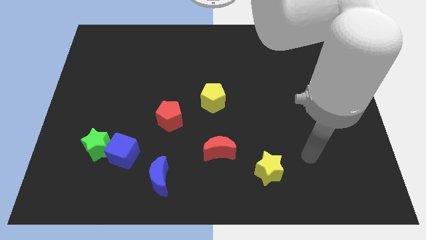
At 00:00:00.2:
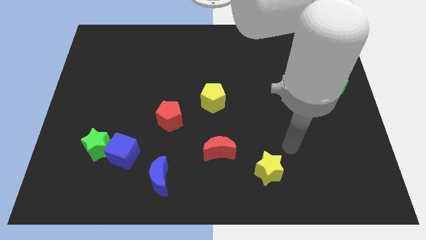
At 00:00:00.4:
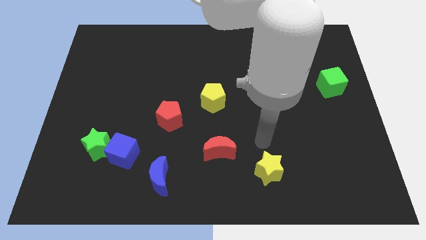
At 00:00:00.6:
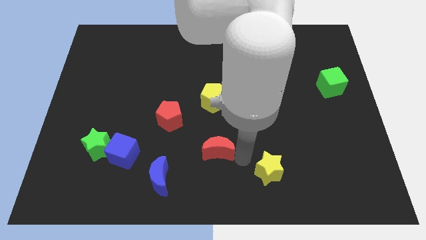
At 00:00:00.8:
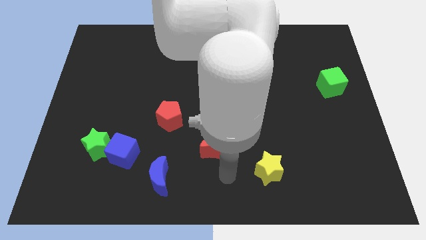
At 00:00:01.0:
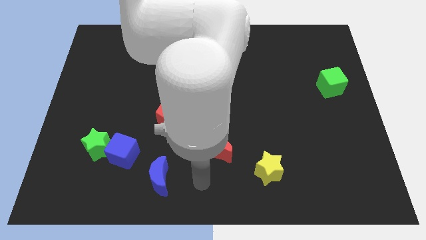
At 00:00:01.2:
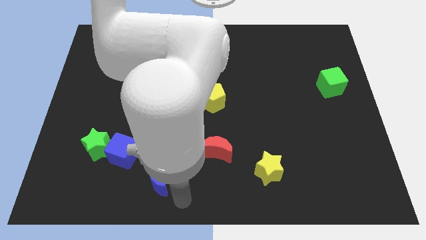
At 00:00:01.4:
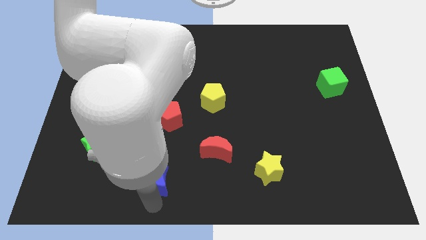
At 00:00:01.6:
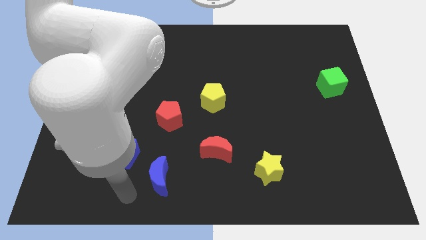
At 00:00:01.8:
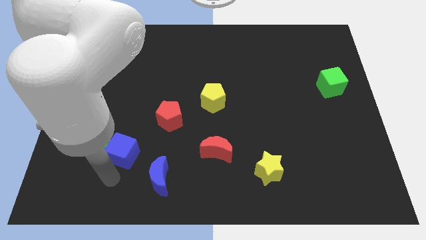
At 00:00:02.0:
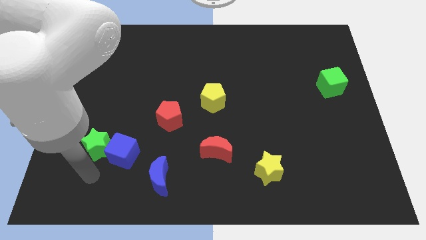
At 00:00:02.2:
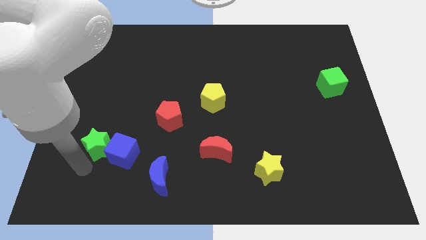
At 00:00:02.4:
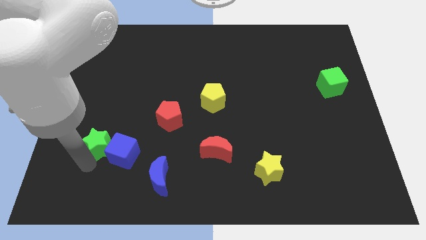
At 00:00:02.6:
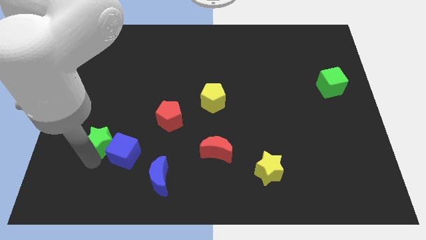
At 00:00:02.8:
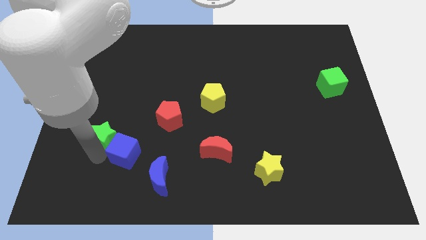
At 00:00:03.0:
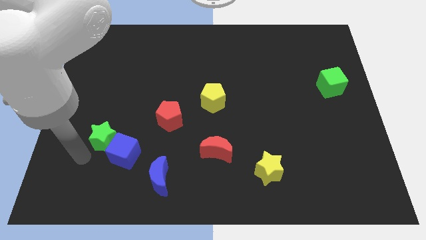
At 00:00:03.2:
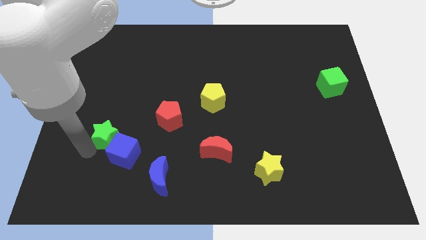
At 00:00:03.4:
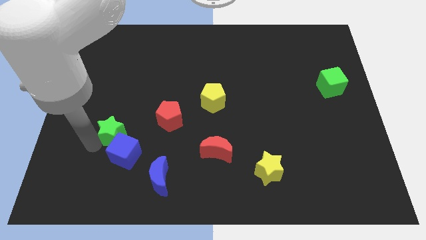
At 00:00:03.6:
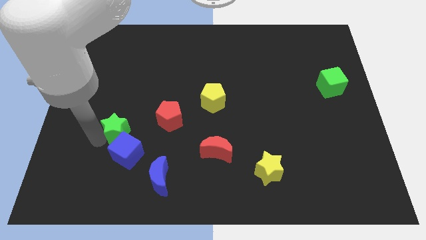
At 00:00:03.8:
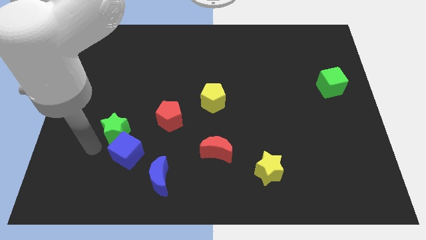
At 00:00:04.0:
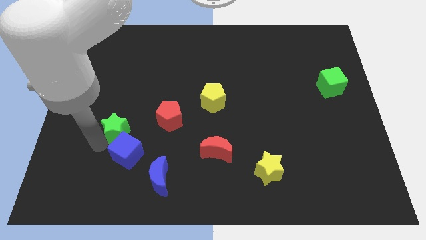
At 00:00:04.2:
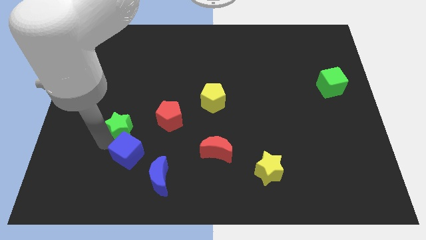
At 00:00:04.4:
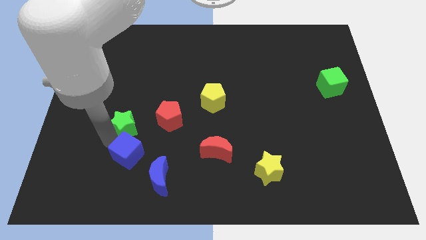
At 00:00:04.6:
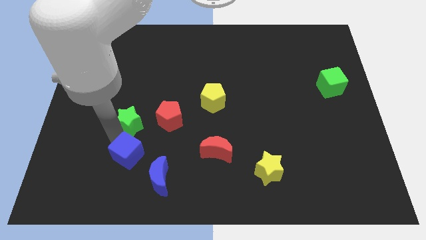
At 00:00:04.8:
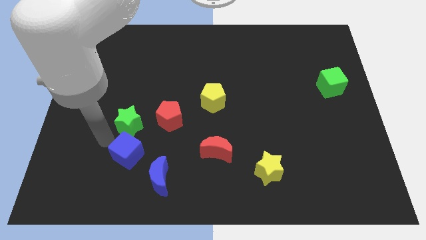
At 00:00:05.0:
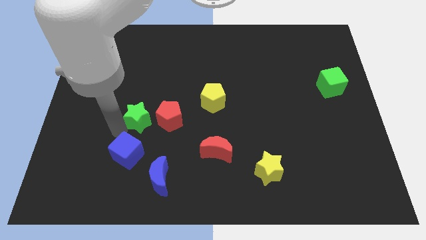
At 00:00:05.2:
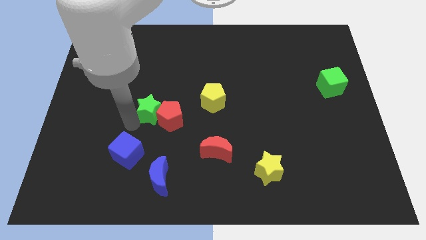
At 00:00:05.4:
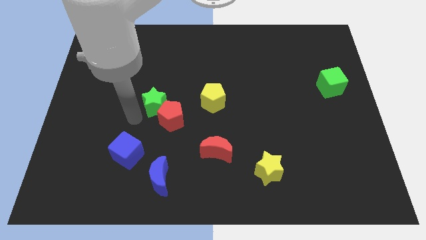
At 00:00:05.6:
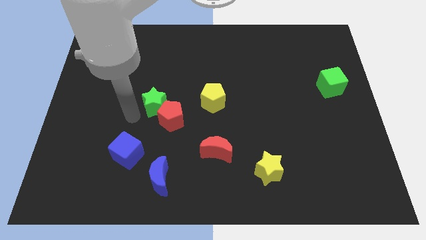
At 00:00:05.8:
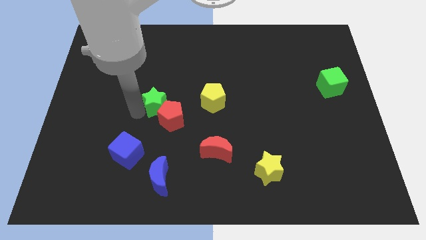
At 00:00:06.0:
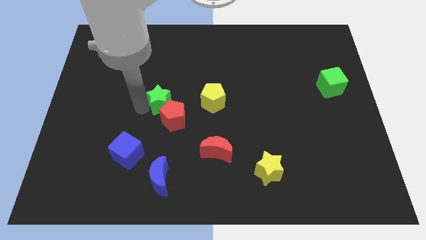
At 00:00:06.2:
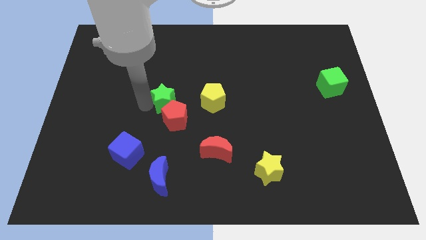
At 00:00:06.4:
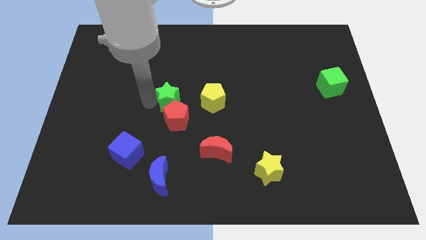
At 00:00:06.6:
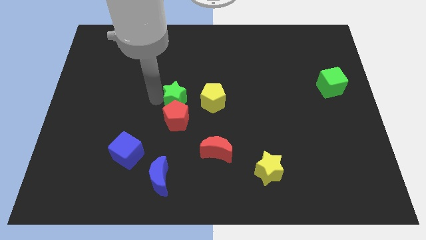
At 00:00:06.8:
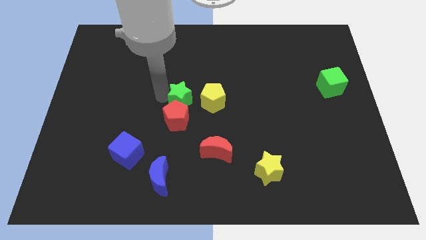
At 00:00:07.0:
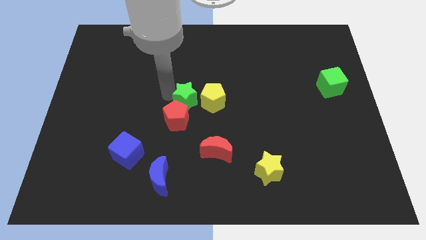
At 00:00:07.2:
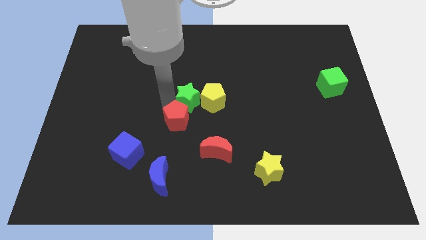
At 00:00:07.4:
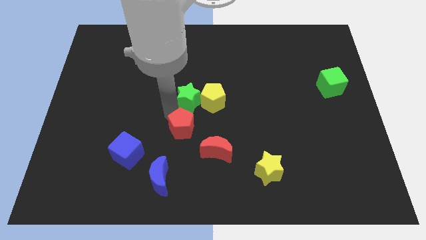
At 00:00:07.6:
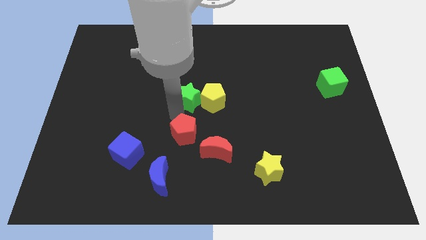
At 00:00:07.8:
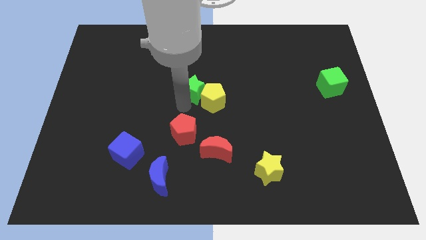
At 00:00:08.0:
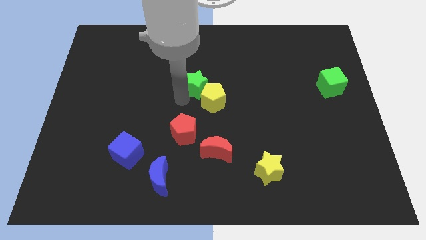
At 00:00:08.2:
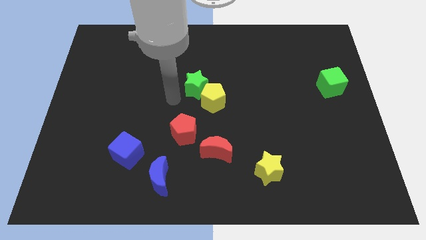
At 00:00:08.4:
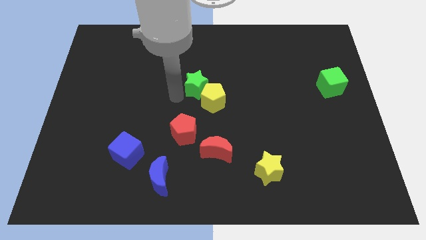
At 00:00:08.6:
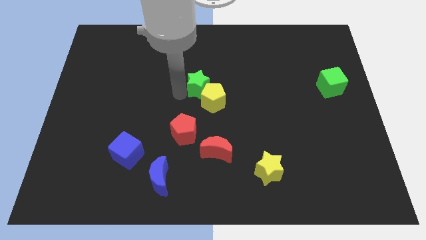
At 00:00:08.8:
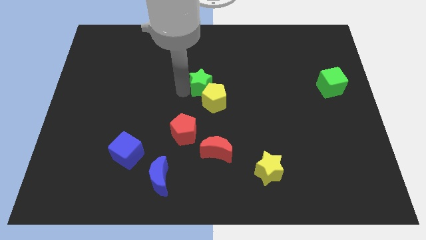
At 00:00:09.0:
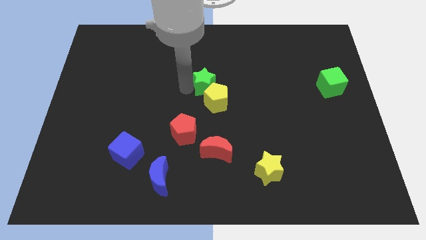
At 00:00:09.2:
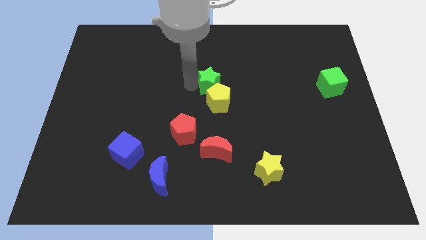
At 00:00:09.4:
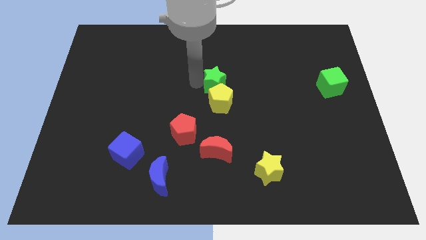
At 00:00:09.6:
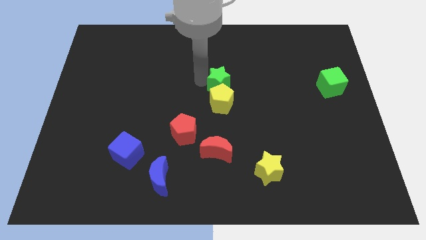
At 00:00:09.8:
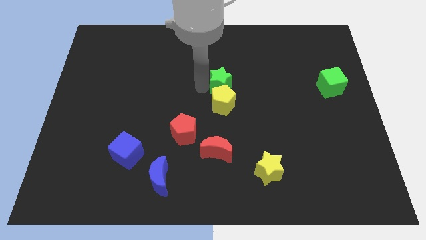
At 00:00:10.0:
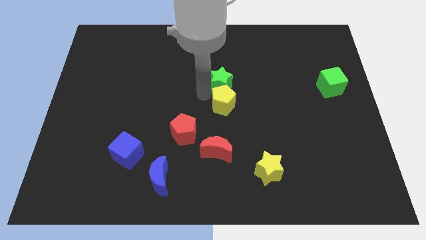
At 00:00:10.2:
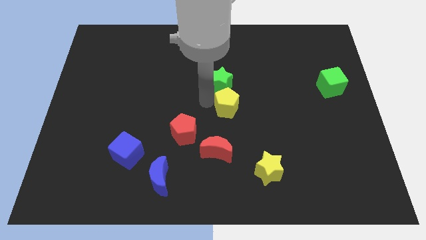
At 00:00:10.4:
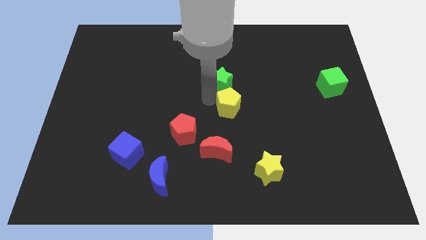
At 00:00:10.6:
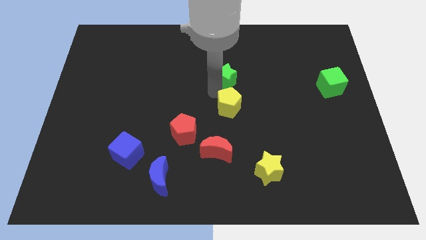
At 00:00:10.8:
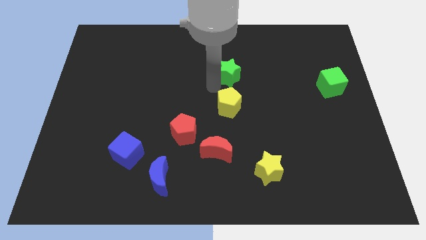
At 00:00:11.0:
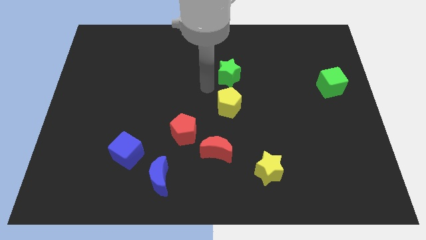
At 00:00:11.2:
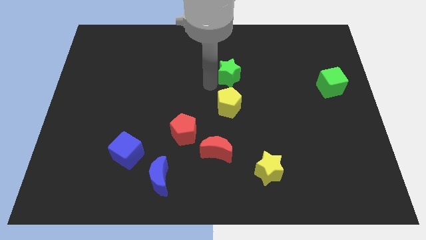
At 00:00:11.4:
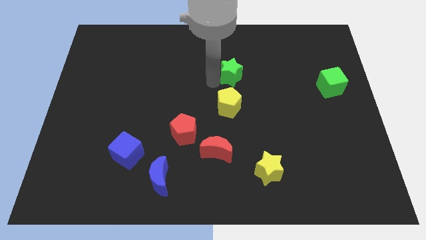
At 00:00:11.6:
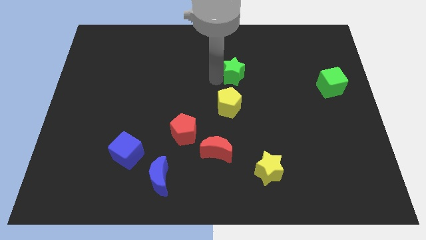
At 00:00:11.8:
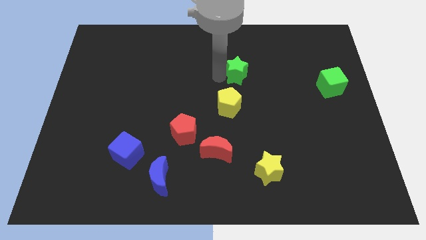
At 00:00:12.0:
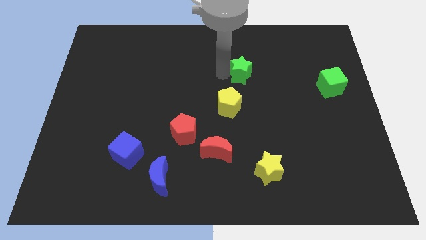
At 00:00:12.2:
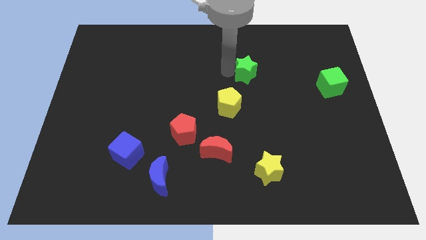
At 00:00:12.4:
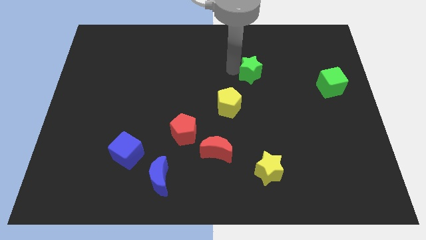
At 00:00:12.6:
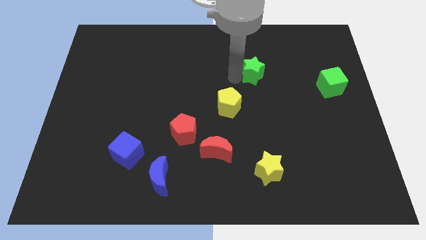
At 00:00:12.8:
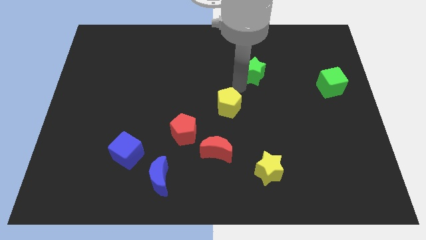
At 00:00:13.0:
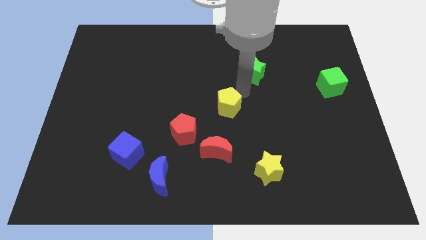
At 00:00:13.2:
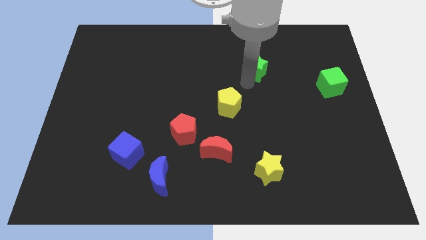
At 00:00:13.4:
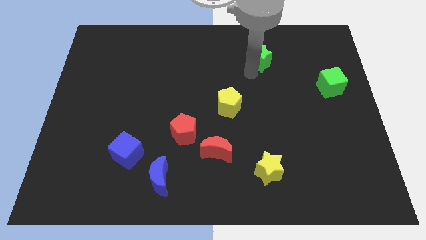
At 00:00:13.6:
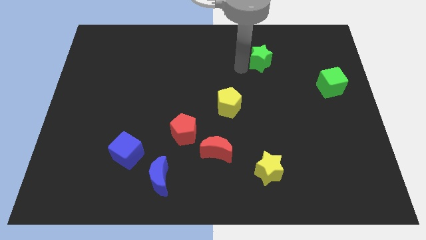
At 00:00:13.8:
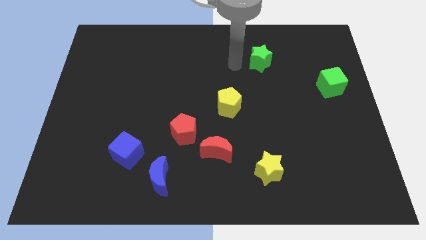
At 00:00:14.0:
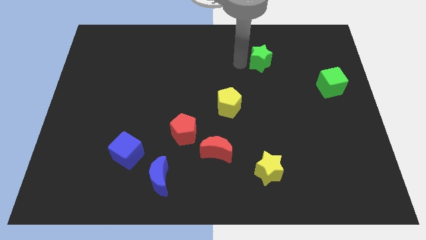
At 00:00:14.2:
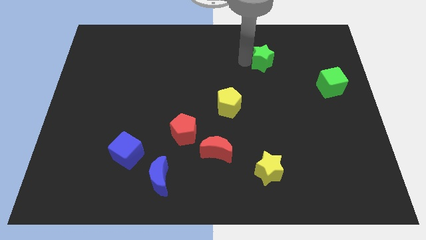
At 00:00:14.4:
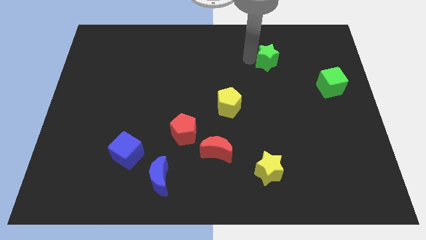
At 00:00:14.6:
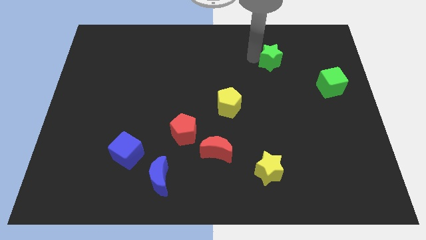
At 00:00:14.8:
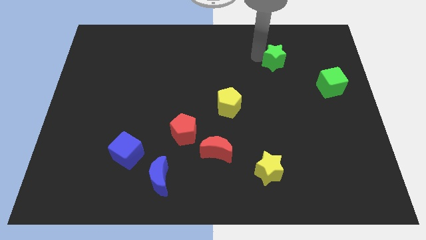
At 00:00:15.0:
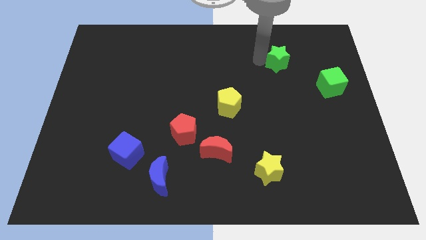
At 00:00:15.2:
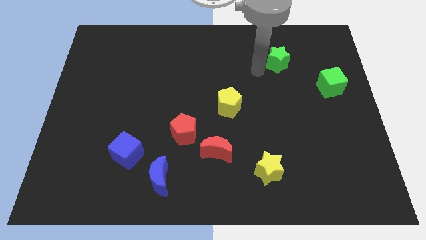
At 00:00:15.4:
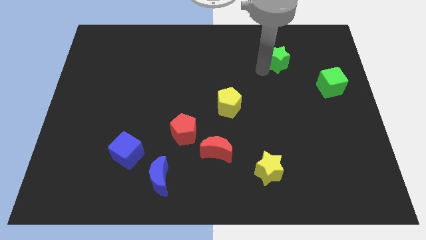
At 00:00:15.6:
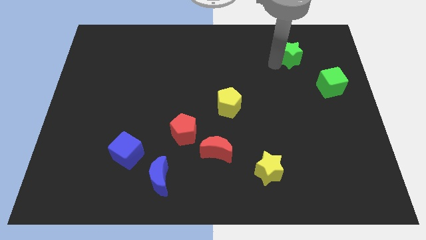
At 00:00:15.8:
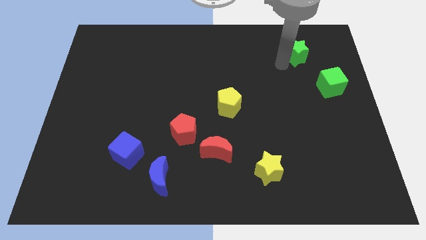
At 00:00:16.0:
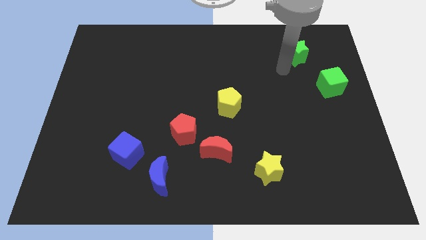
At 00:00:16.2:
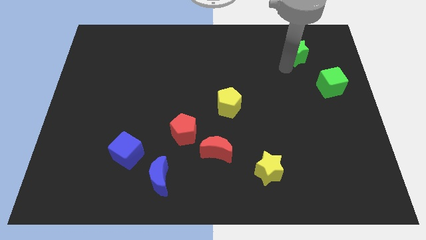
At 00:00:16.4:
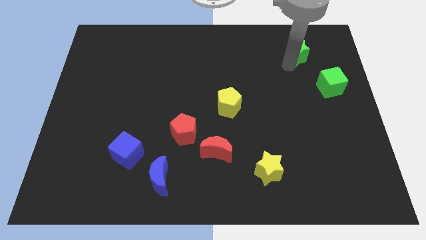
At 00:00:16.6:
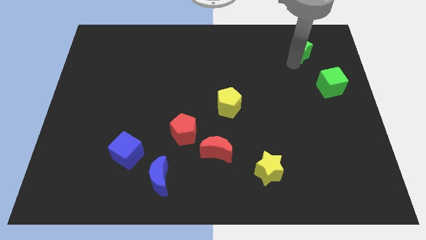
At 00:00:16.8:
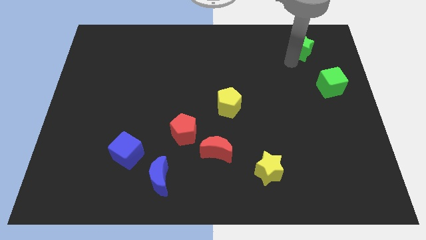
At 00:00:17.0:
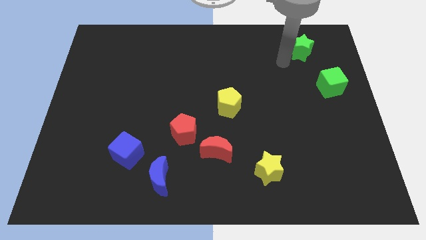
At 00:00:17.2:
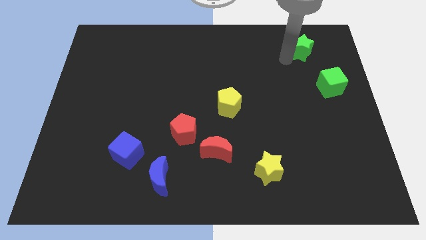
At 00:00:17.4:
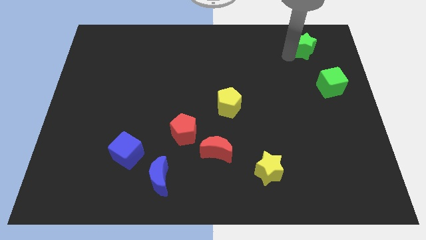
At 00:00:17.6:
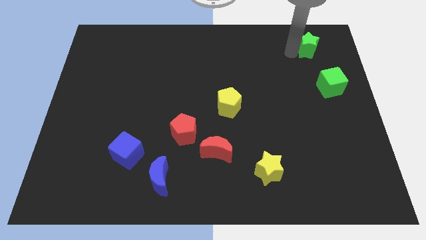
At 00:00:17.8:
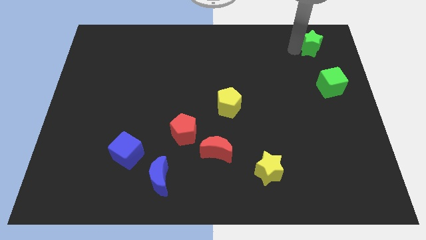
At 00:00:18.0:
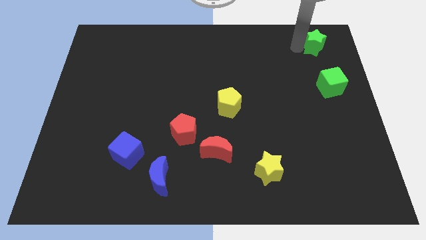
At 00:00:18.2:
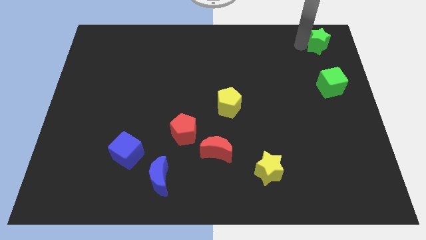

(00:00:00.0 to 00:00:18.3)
move the green star to the upper right corner
